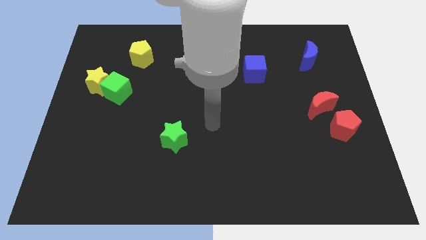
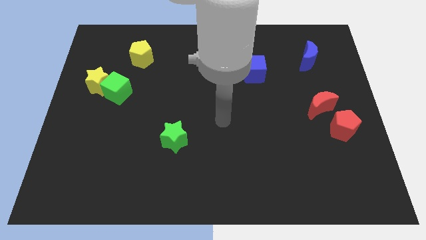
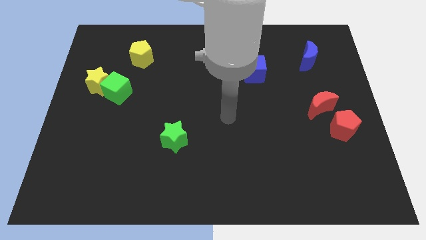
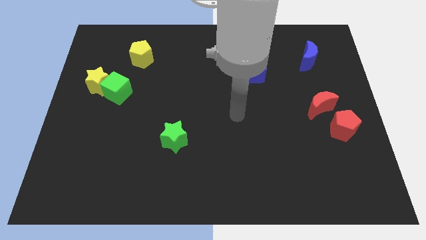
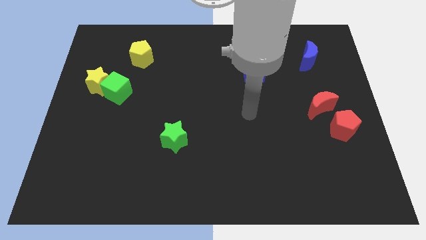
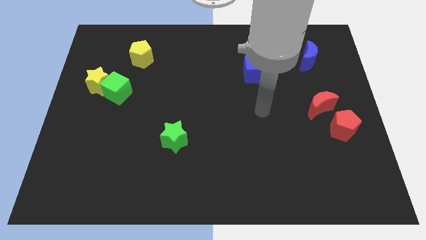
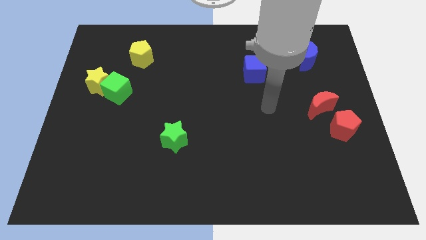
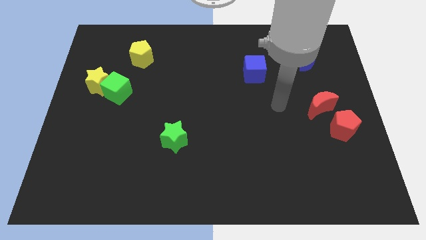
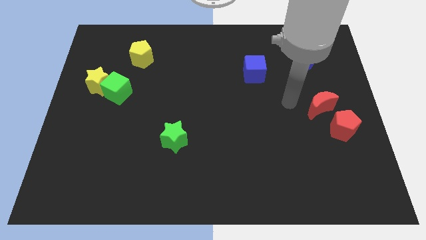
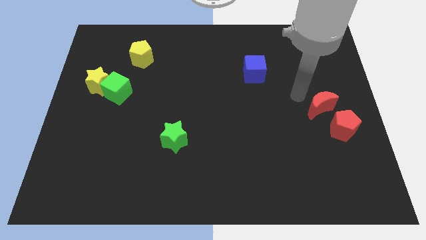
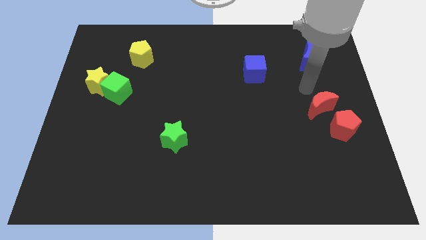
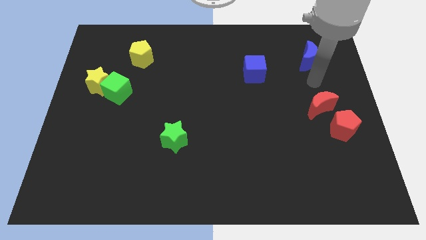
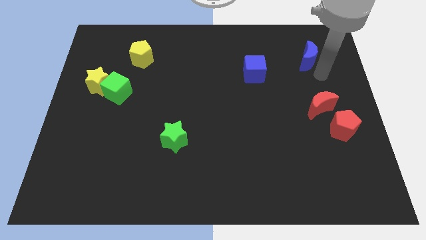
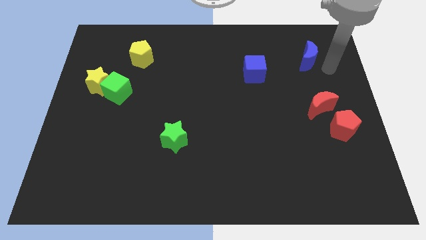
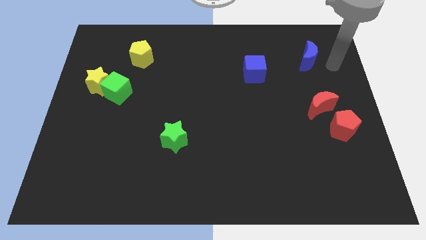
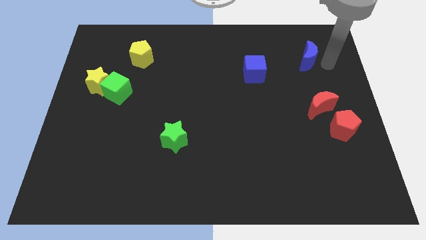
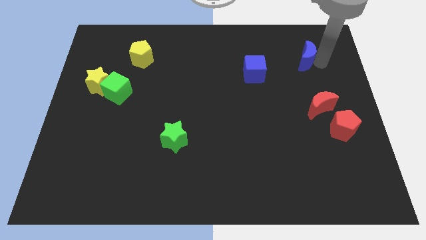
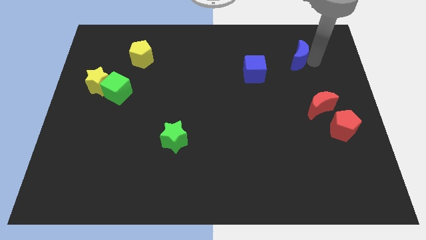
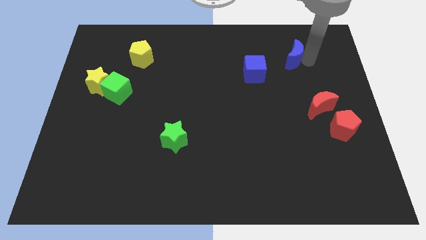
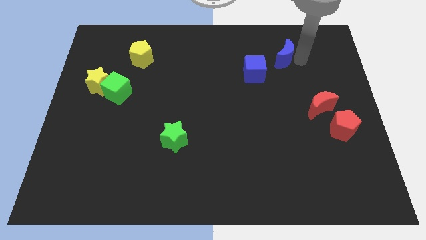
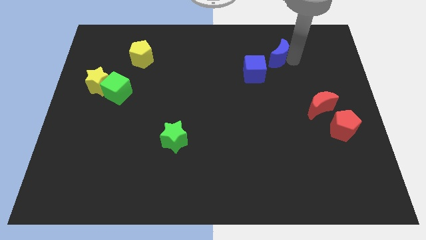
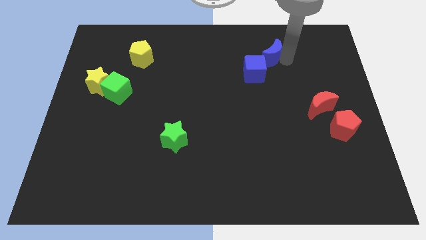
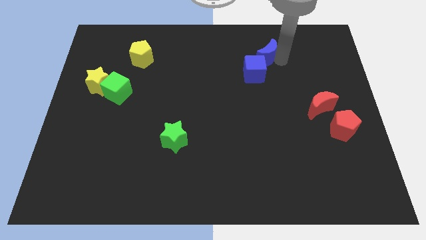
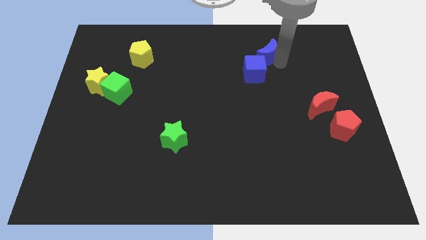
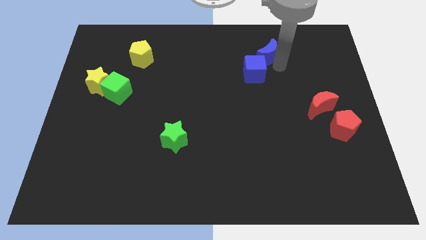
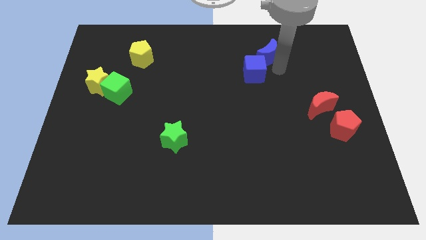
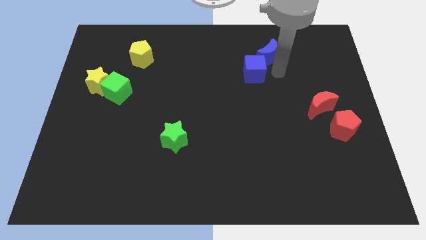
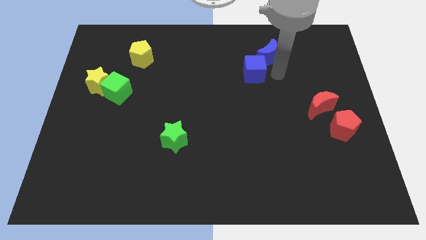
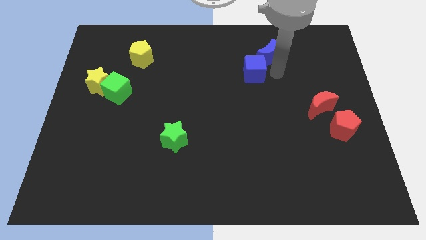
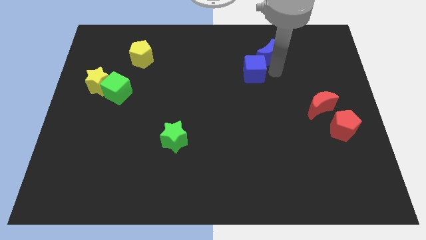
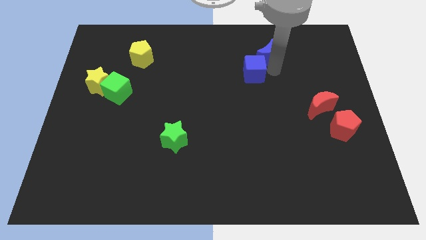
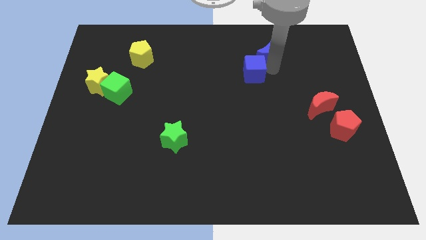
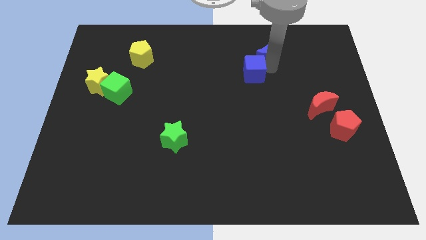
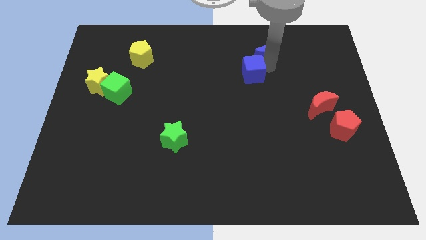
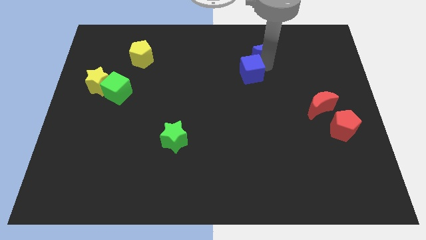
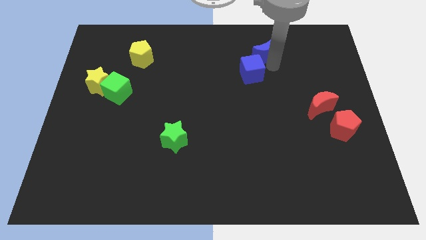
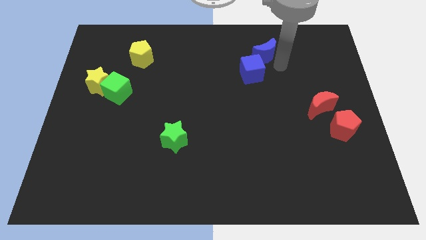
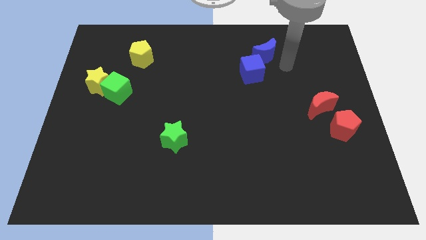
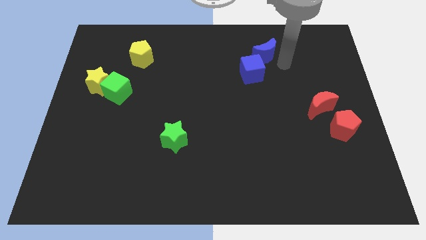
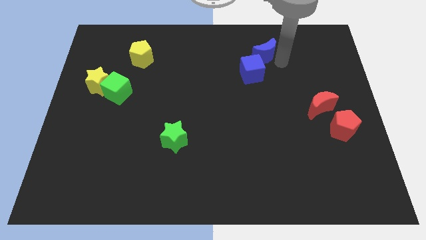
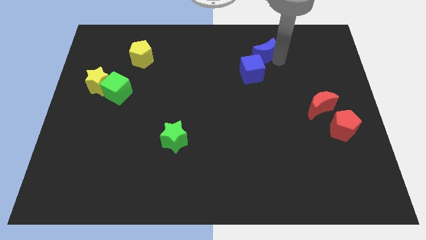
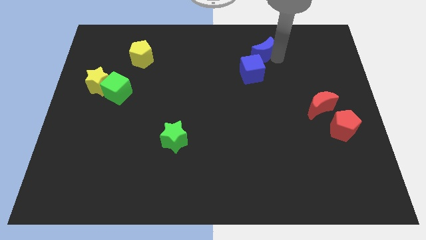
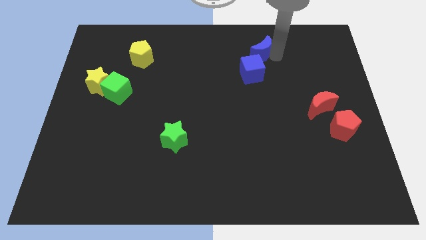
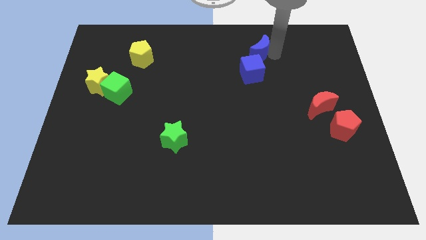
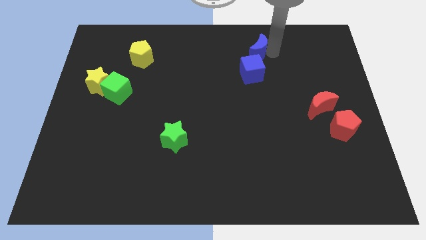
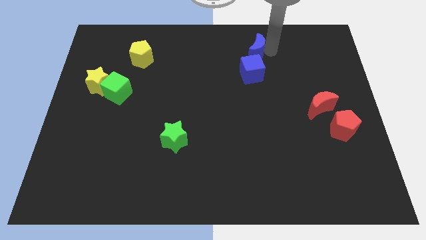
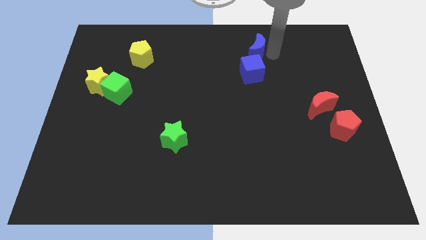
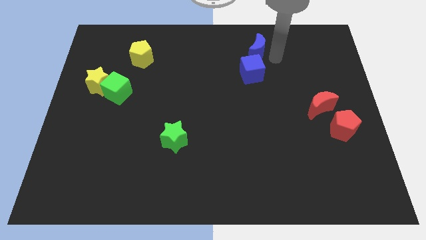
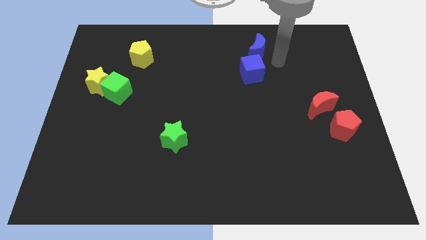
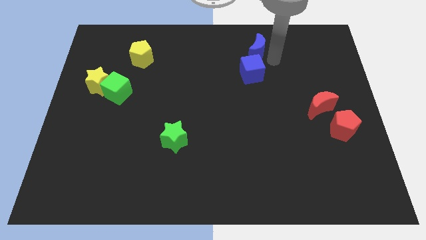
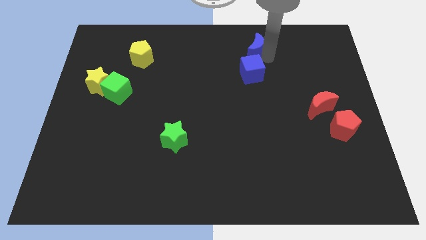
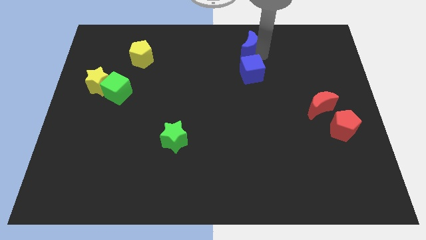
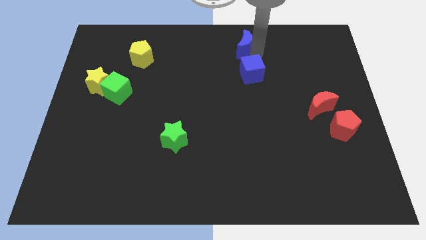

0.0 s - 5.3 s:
push the blue moon to the top

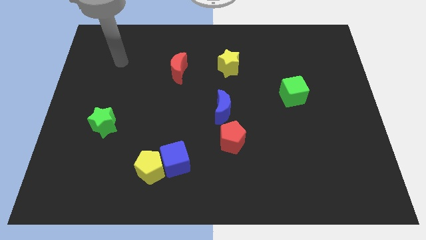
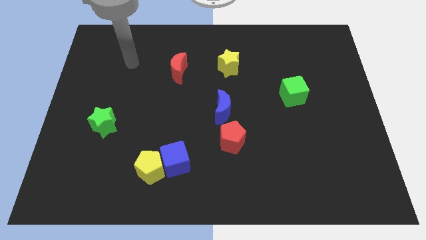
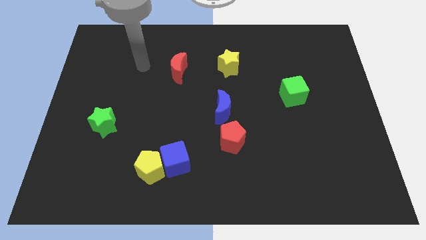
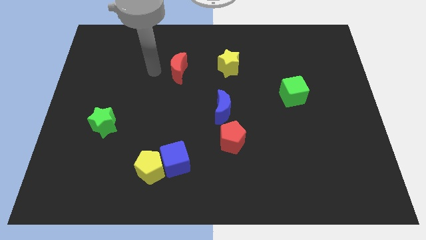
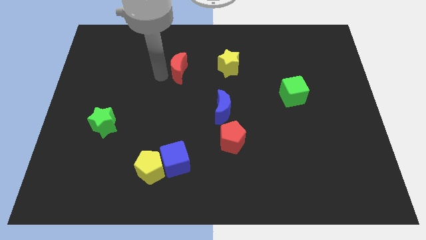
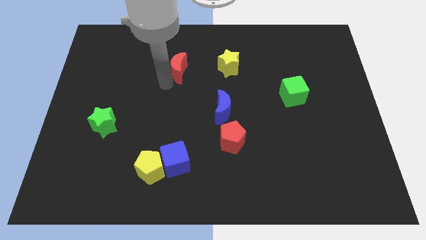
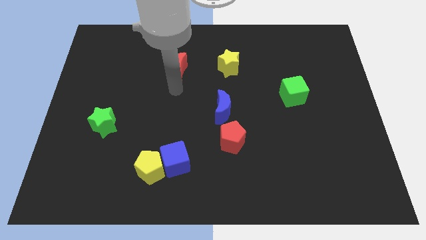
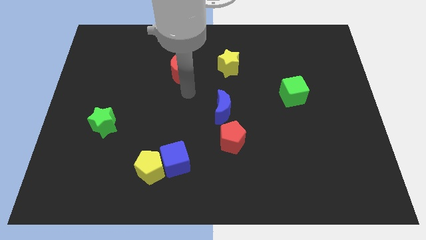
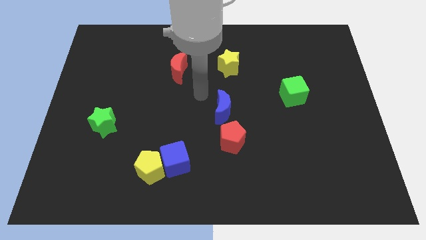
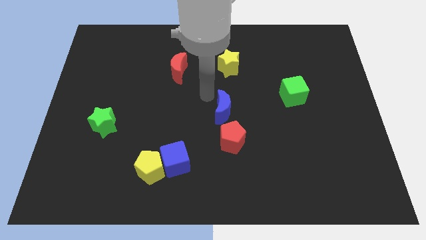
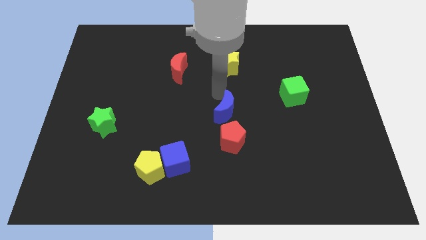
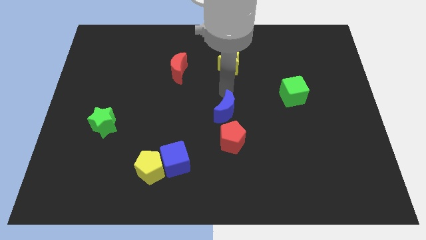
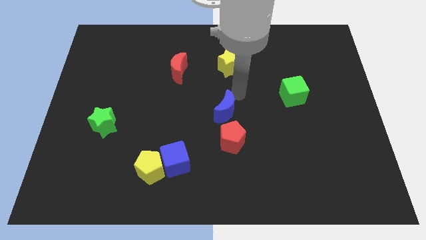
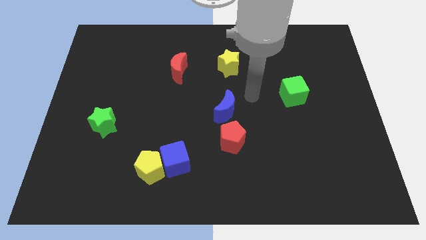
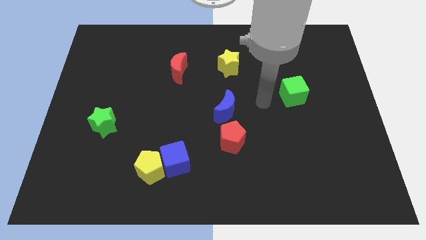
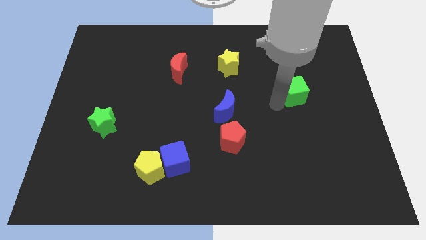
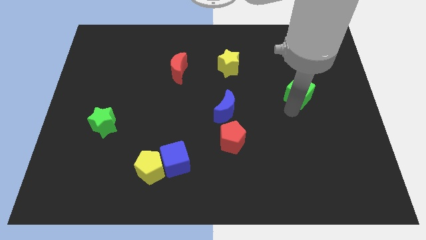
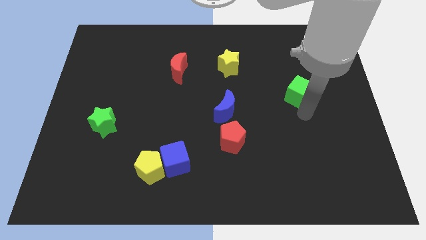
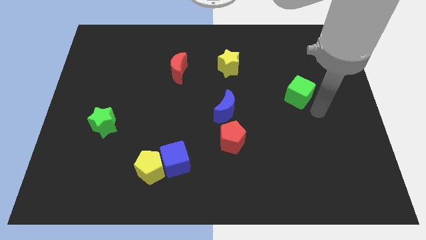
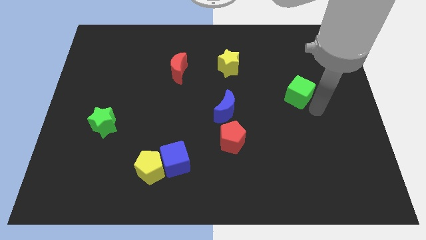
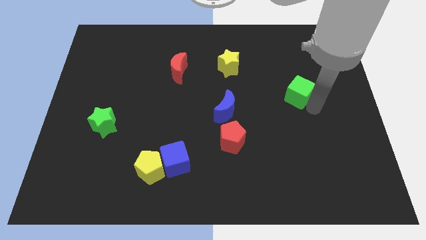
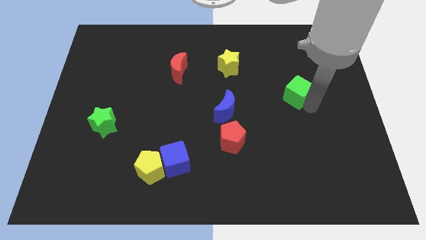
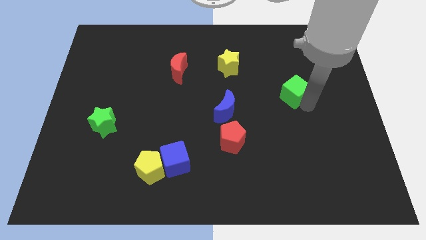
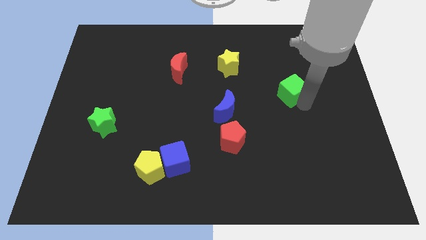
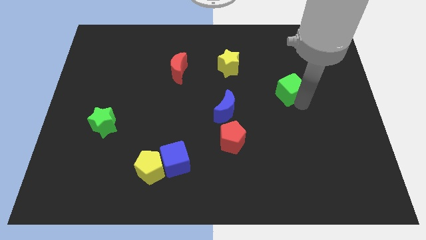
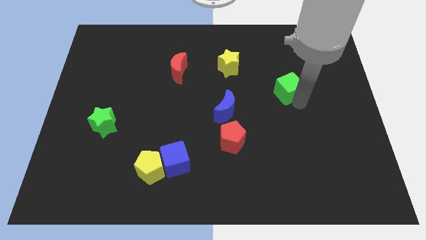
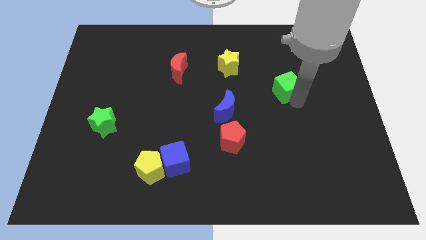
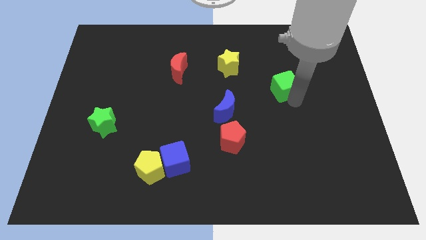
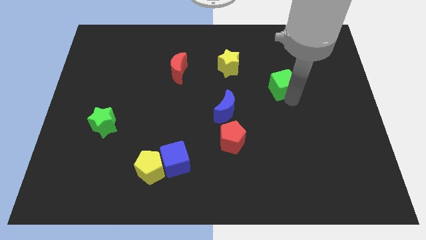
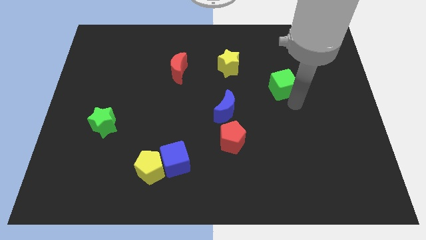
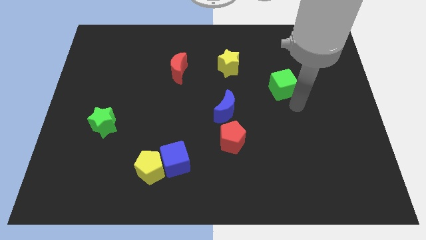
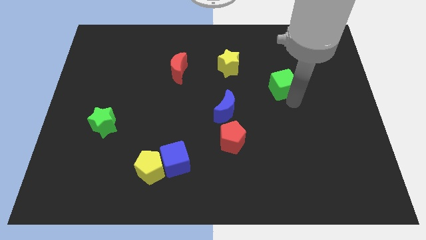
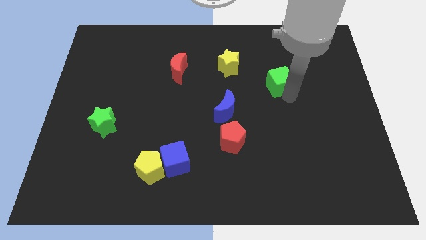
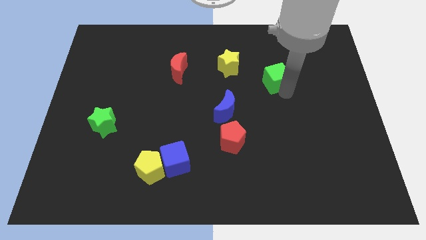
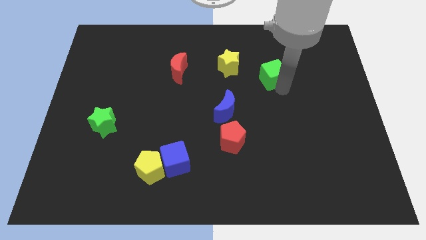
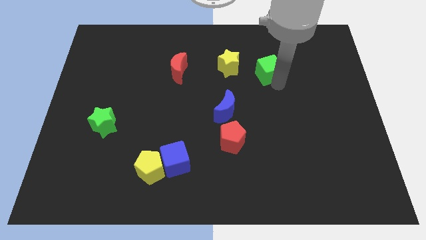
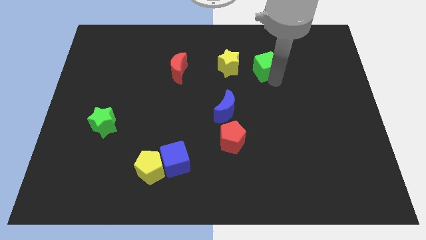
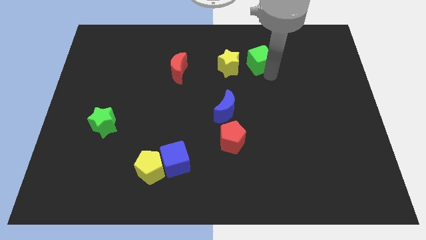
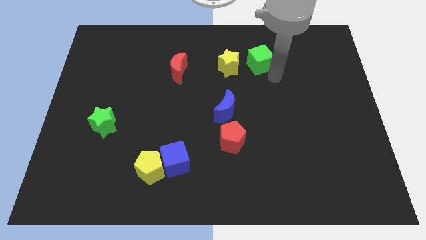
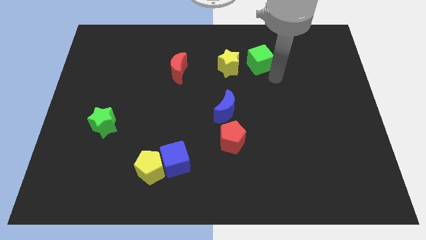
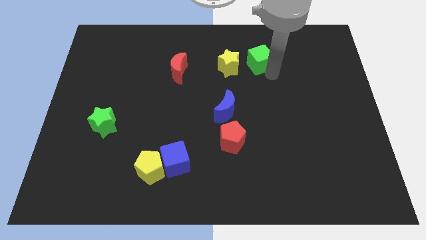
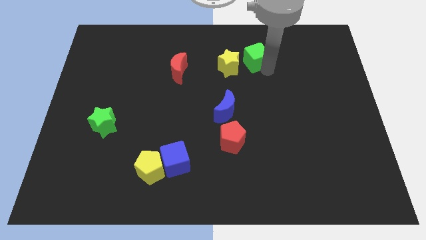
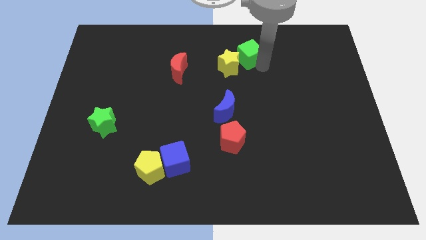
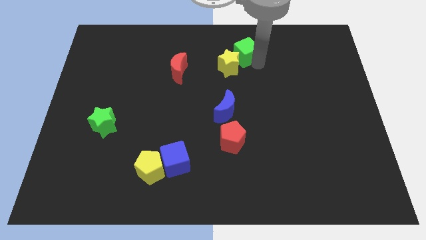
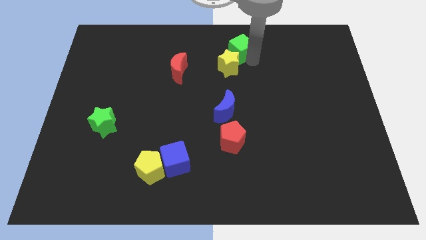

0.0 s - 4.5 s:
move the green cube to the towards your base
